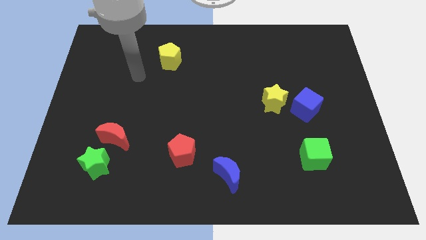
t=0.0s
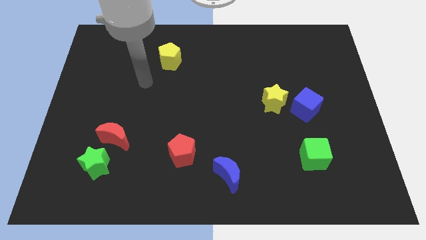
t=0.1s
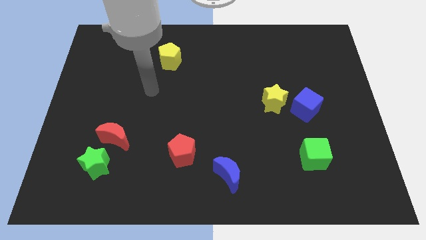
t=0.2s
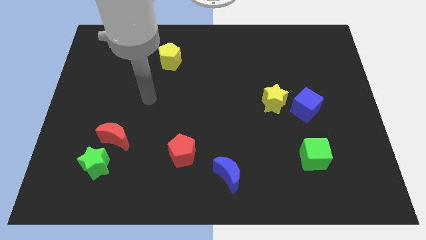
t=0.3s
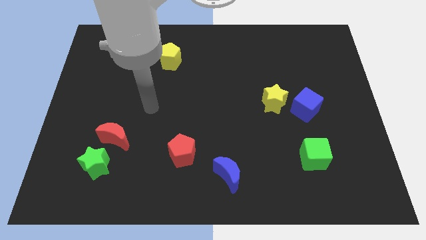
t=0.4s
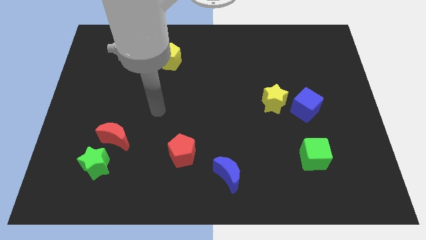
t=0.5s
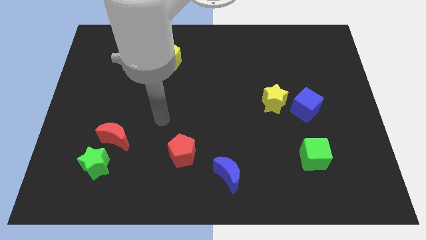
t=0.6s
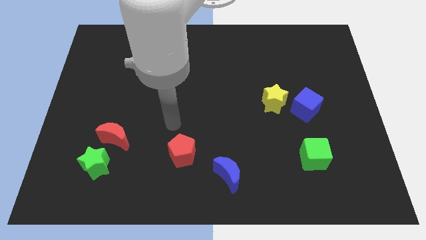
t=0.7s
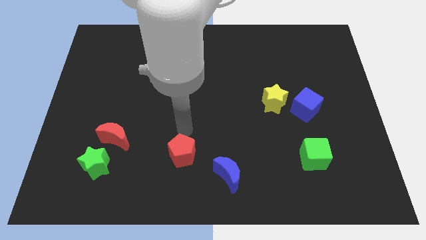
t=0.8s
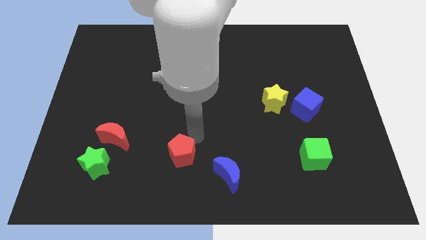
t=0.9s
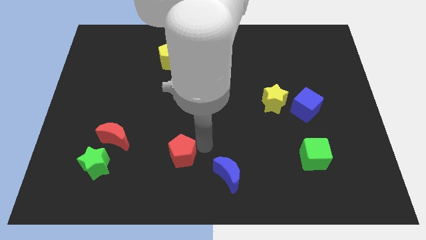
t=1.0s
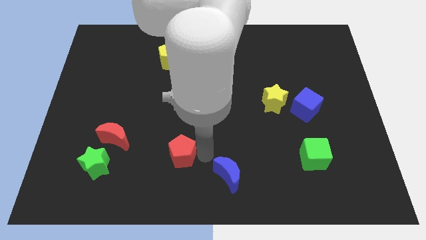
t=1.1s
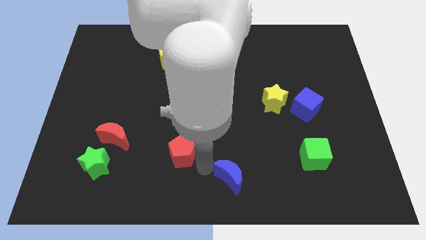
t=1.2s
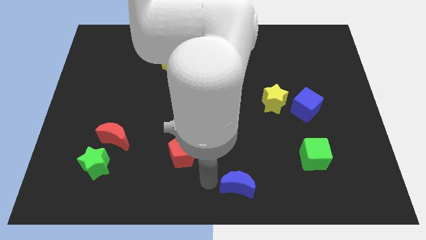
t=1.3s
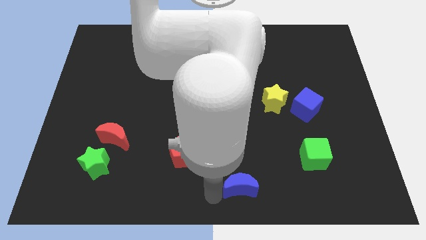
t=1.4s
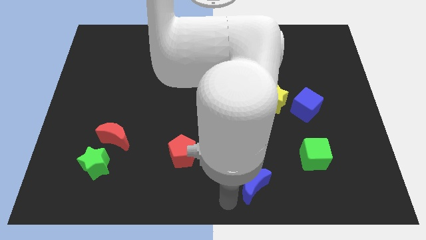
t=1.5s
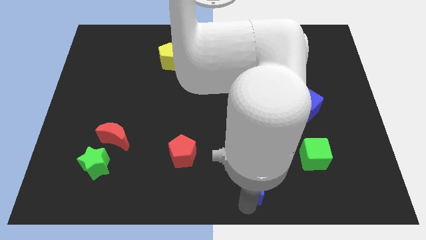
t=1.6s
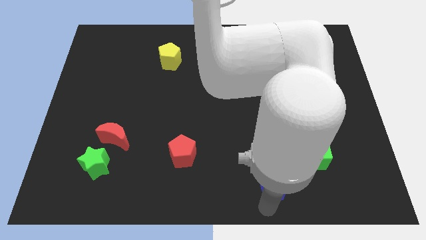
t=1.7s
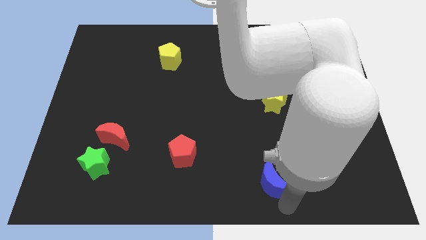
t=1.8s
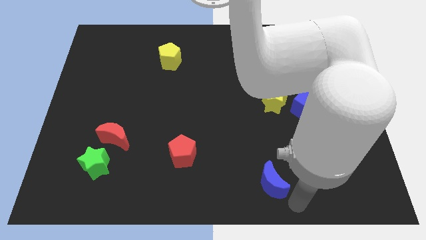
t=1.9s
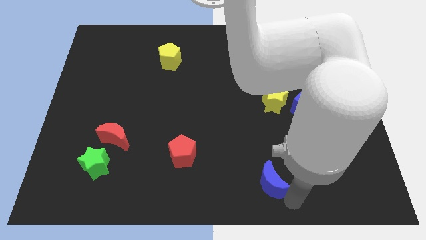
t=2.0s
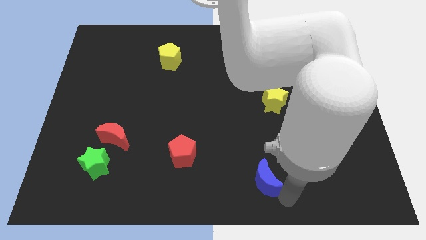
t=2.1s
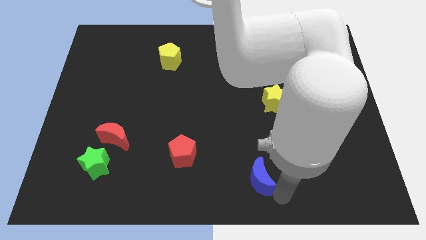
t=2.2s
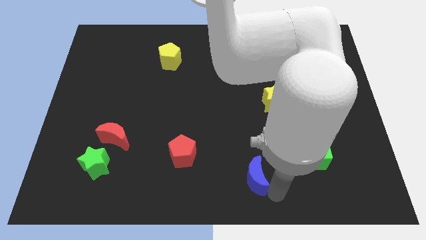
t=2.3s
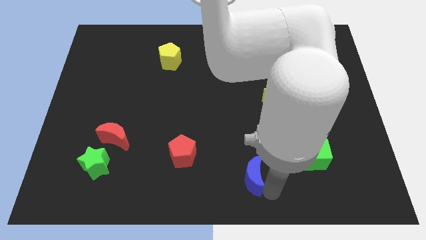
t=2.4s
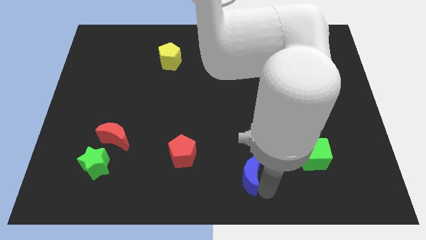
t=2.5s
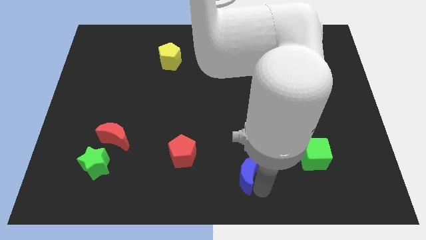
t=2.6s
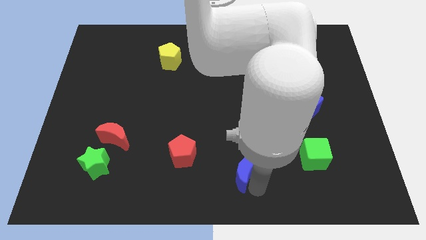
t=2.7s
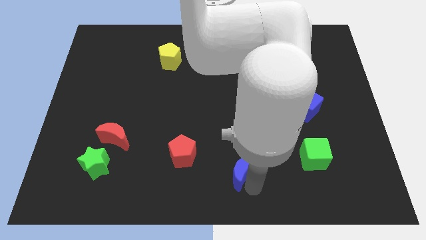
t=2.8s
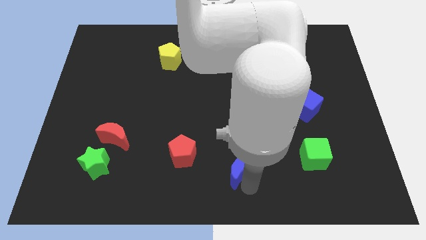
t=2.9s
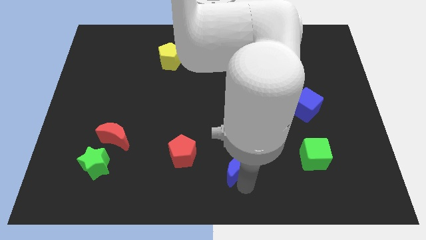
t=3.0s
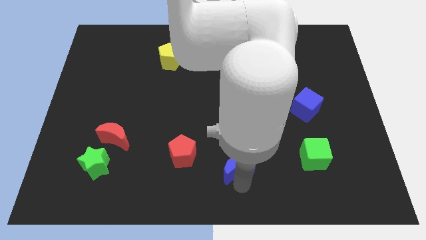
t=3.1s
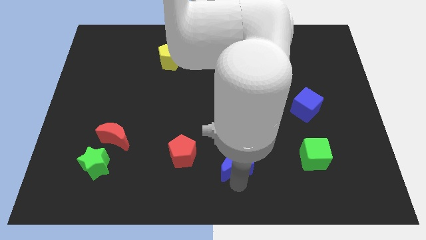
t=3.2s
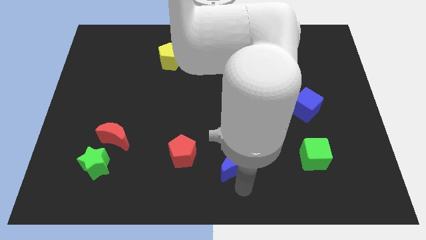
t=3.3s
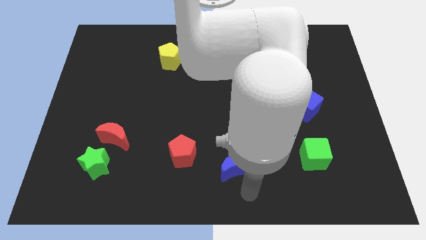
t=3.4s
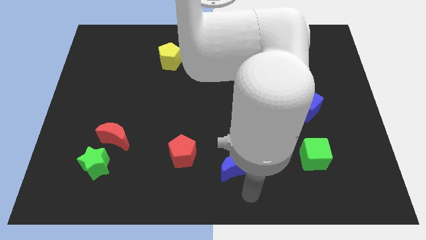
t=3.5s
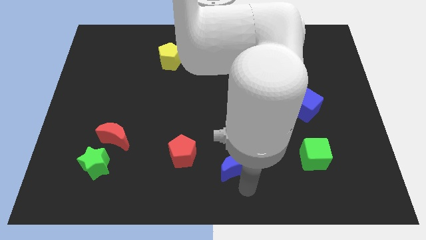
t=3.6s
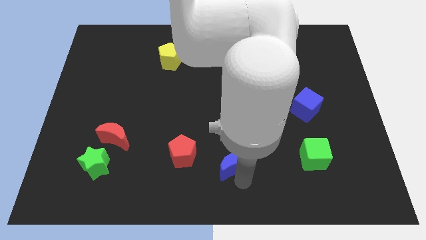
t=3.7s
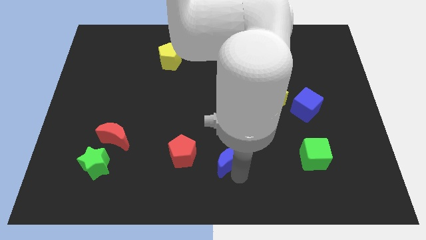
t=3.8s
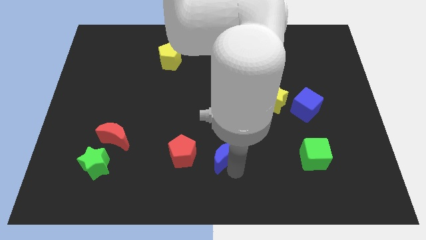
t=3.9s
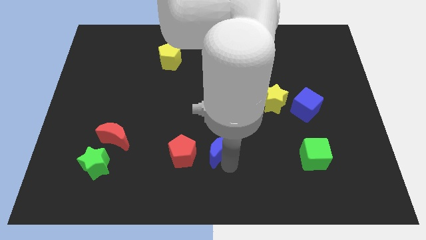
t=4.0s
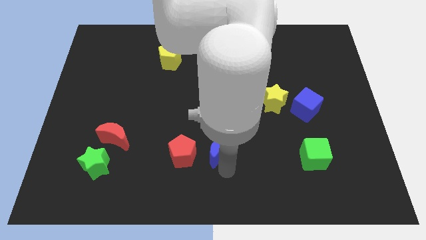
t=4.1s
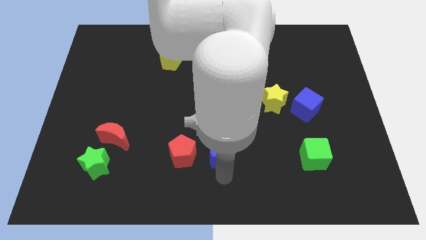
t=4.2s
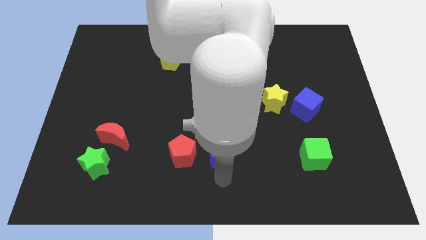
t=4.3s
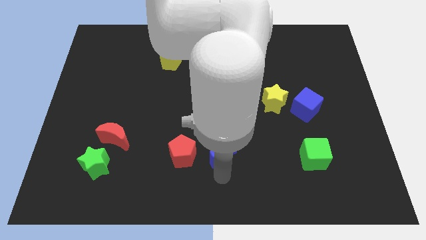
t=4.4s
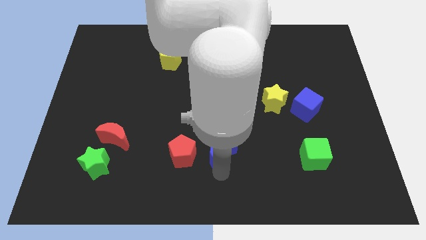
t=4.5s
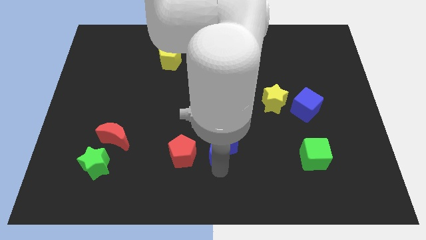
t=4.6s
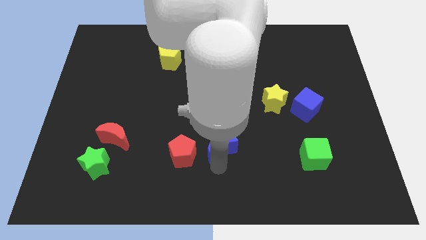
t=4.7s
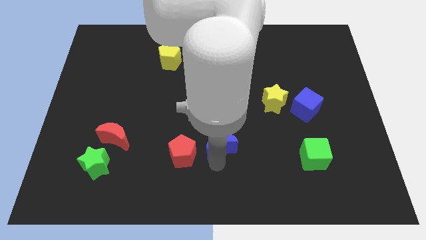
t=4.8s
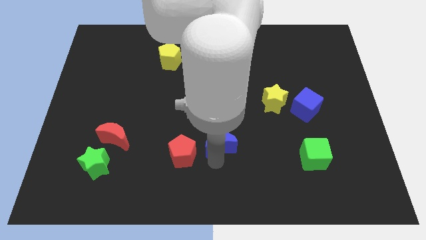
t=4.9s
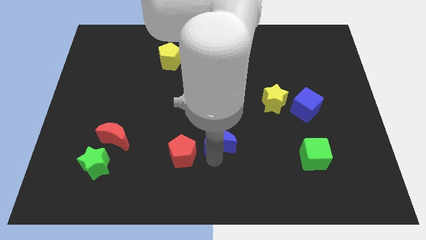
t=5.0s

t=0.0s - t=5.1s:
move the blue moon to the middle

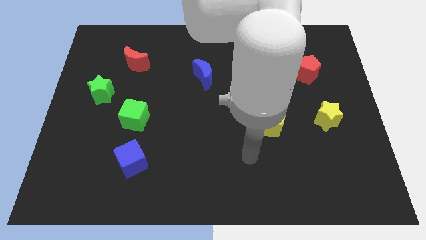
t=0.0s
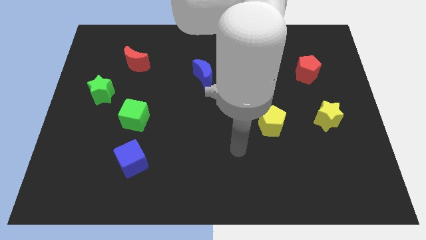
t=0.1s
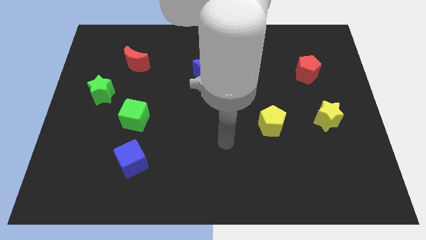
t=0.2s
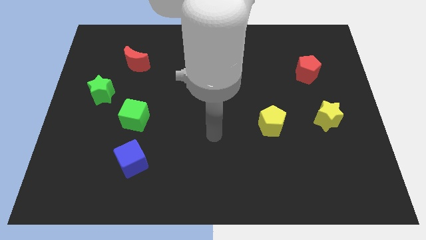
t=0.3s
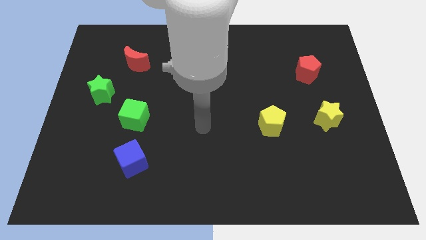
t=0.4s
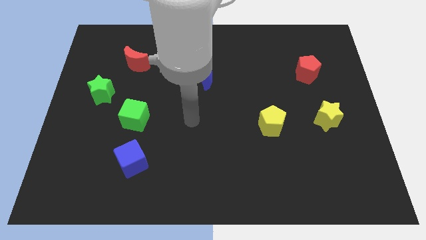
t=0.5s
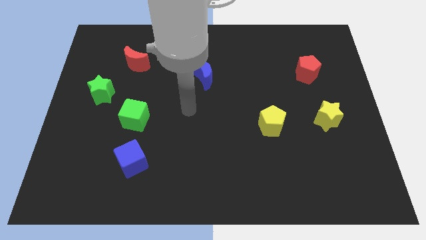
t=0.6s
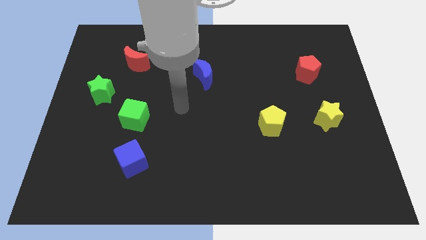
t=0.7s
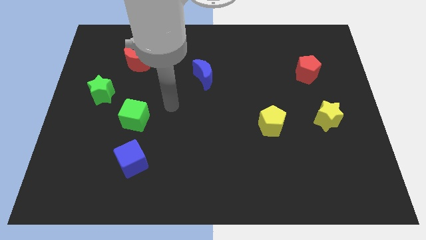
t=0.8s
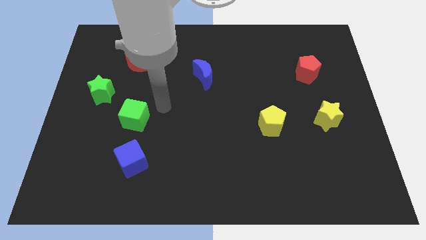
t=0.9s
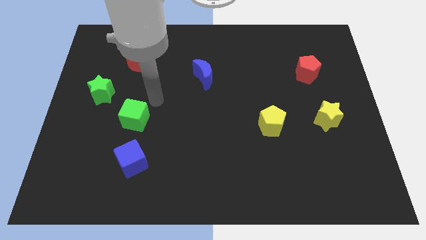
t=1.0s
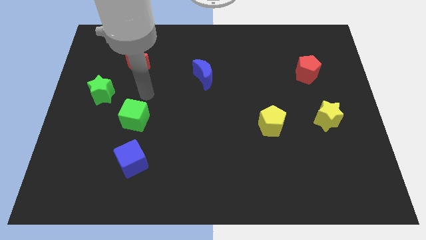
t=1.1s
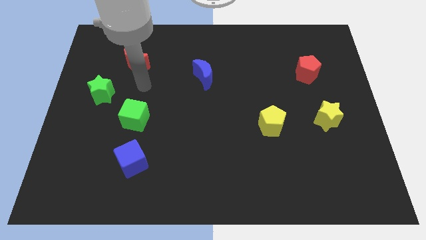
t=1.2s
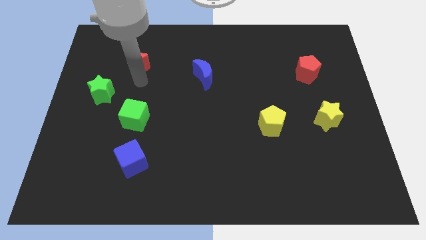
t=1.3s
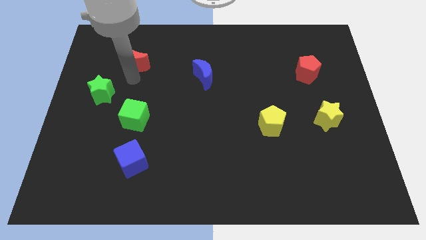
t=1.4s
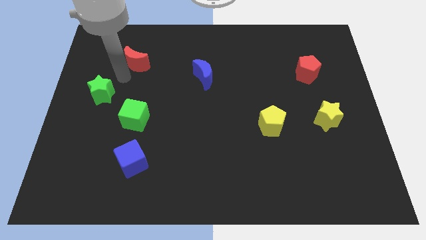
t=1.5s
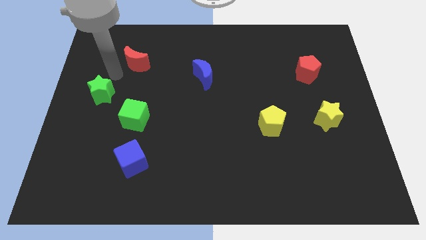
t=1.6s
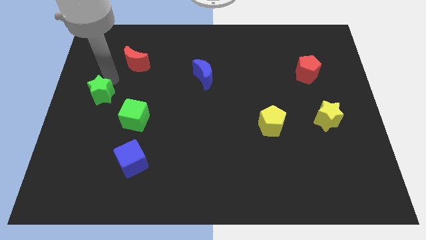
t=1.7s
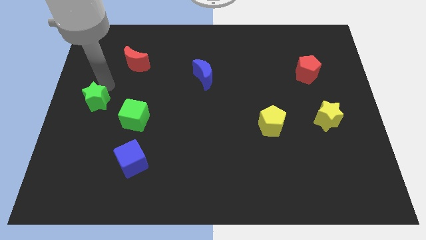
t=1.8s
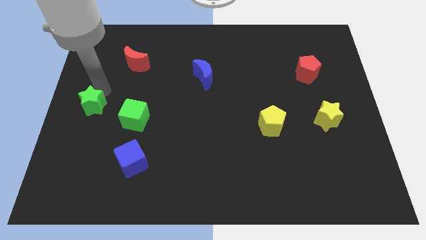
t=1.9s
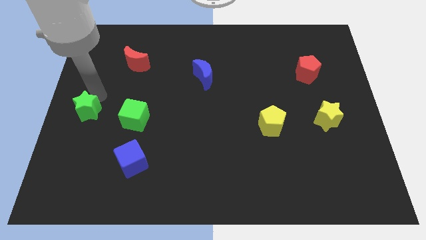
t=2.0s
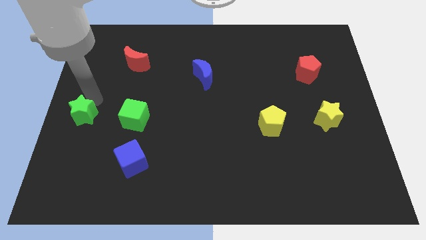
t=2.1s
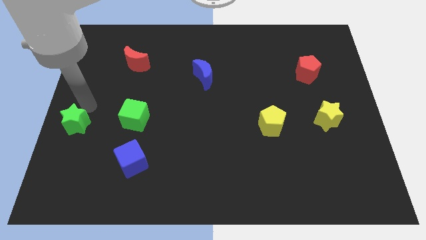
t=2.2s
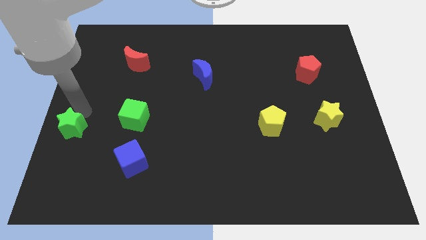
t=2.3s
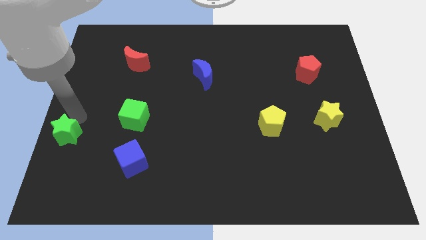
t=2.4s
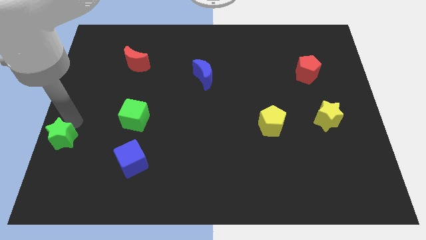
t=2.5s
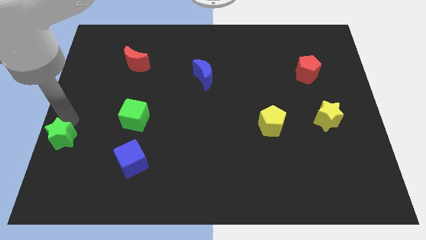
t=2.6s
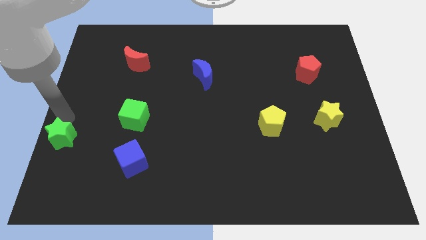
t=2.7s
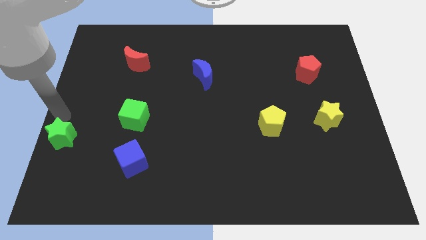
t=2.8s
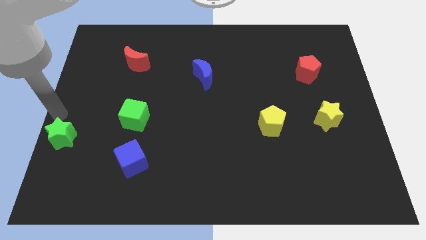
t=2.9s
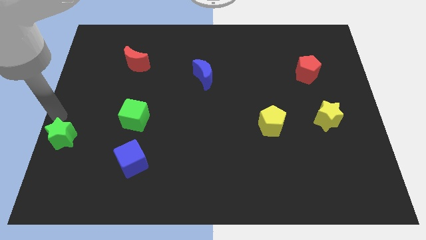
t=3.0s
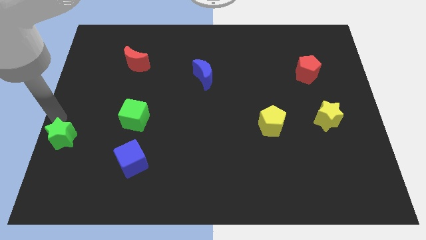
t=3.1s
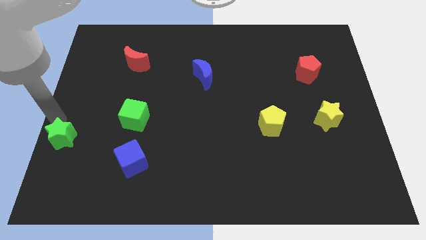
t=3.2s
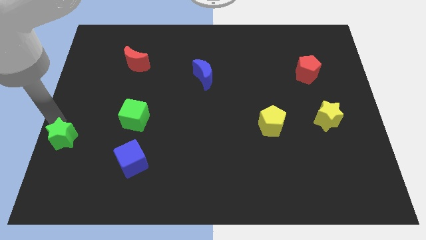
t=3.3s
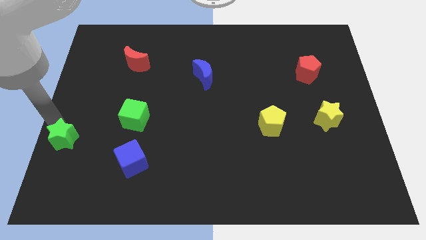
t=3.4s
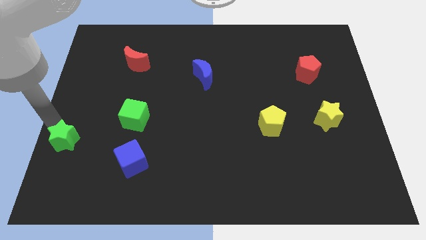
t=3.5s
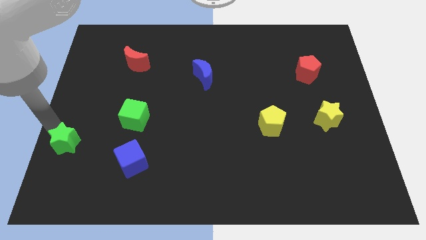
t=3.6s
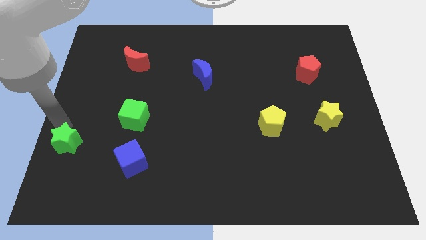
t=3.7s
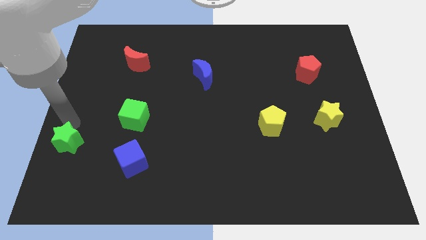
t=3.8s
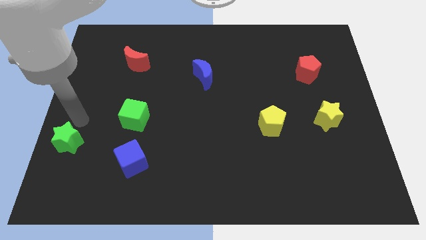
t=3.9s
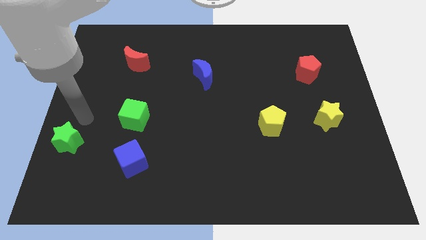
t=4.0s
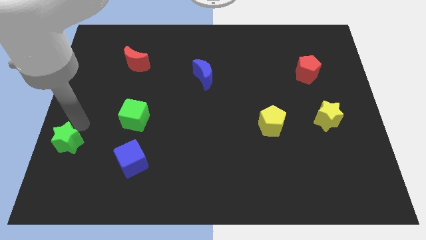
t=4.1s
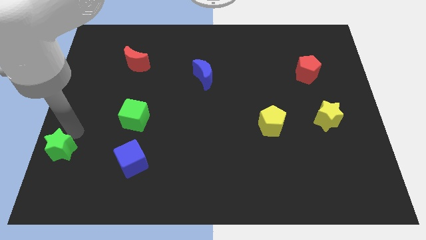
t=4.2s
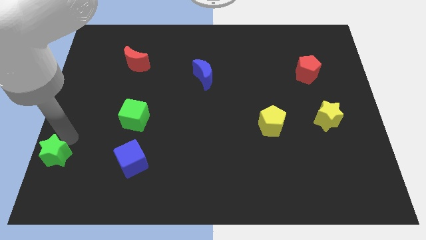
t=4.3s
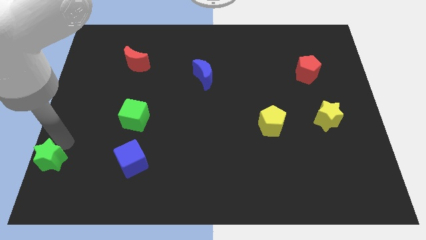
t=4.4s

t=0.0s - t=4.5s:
move the green star to the lower left corner
